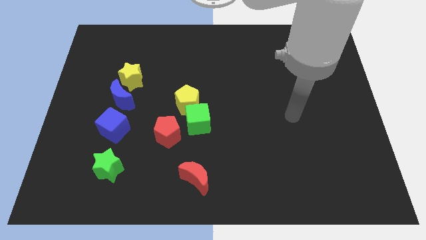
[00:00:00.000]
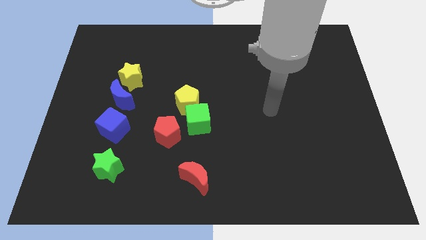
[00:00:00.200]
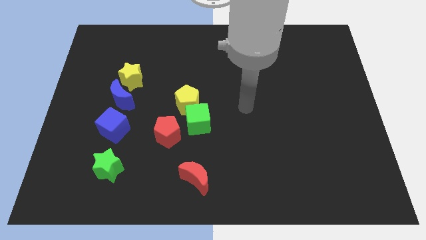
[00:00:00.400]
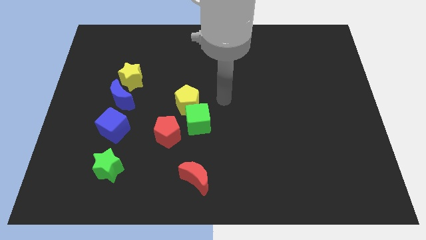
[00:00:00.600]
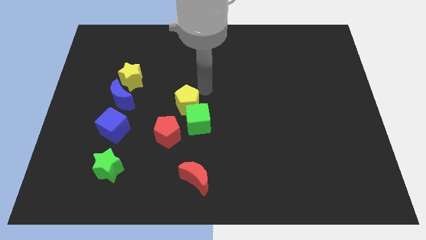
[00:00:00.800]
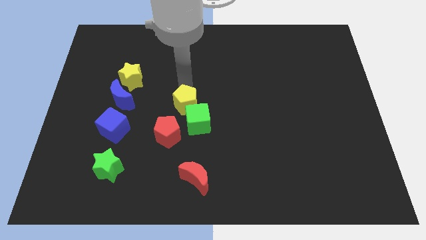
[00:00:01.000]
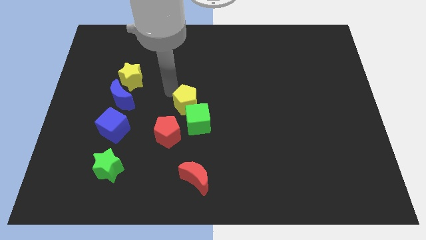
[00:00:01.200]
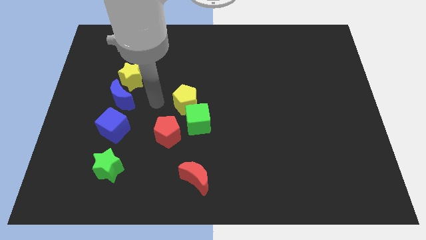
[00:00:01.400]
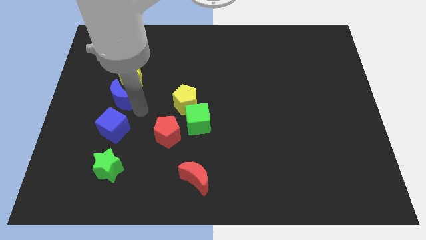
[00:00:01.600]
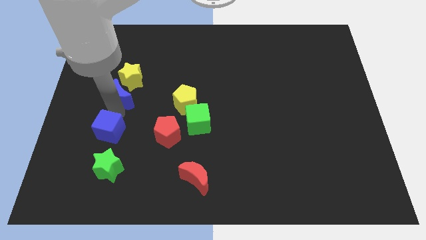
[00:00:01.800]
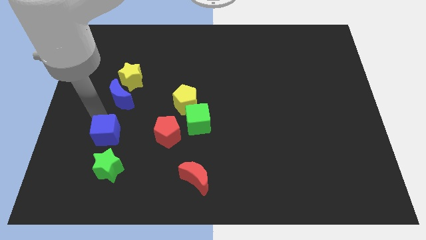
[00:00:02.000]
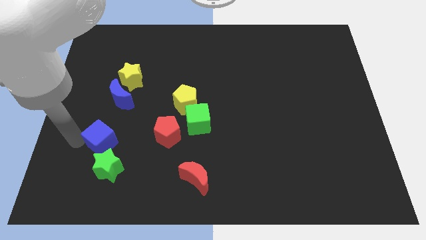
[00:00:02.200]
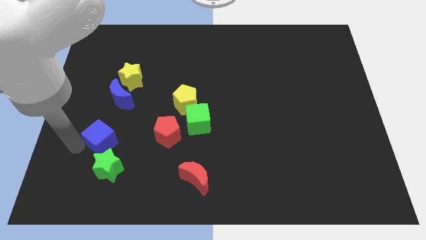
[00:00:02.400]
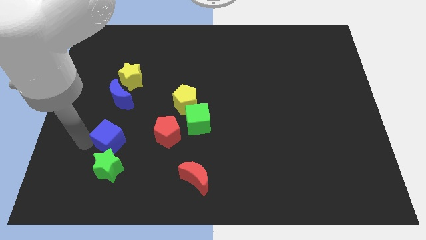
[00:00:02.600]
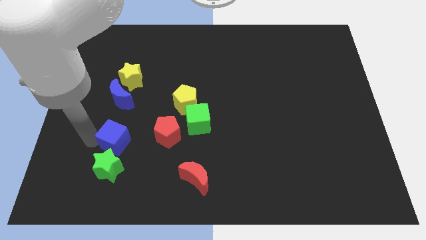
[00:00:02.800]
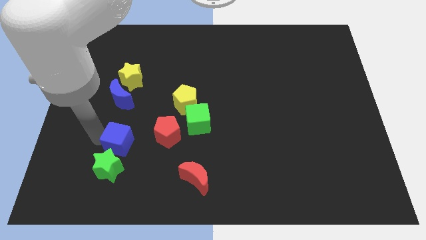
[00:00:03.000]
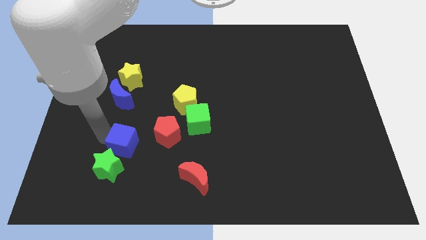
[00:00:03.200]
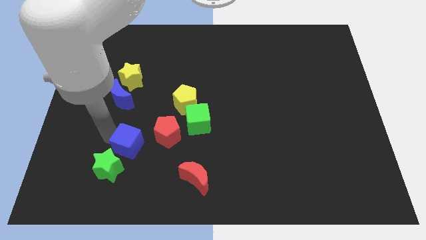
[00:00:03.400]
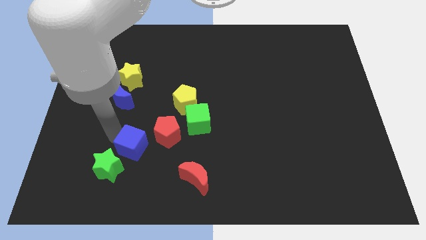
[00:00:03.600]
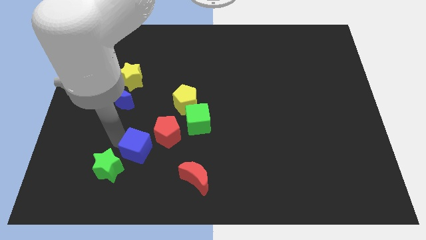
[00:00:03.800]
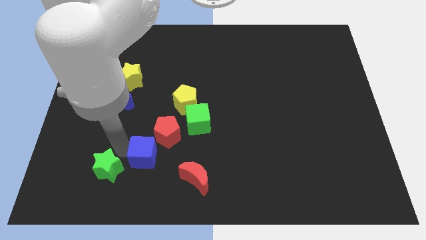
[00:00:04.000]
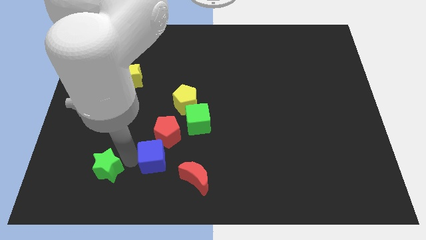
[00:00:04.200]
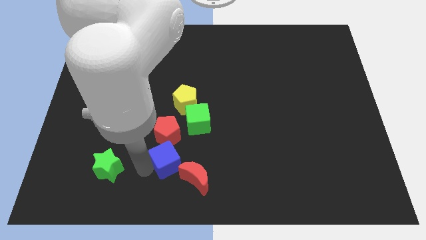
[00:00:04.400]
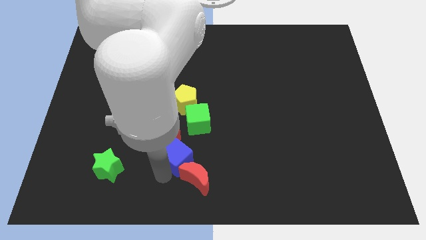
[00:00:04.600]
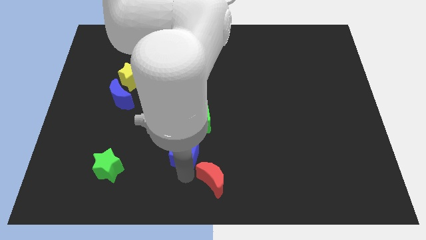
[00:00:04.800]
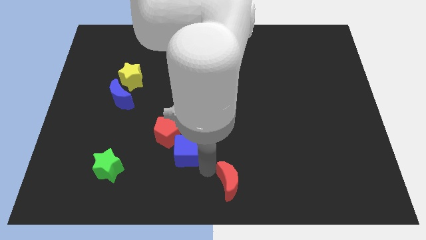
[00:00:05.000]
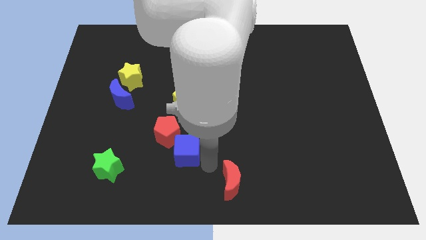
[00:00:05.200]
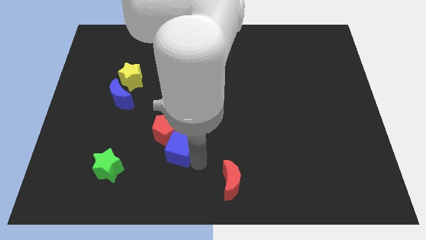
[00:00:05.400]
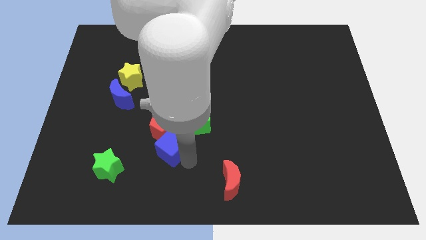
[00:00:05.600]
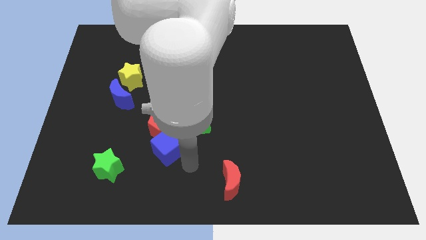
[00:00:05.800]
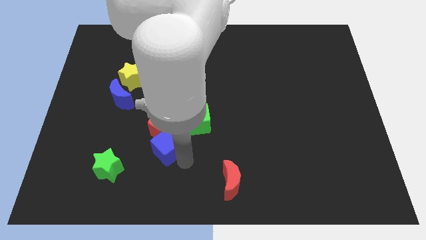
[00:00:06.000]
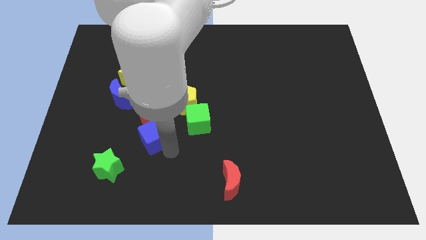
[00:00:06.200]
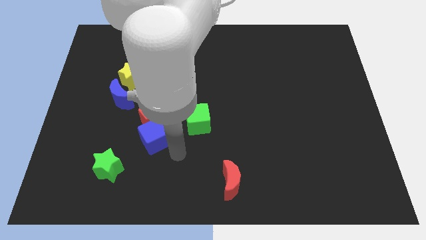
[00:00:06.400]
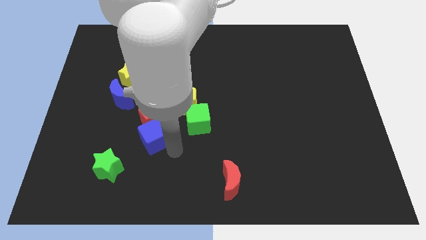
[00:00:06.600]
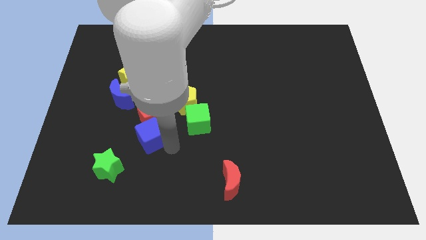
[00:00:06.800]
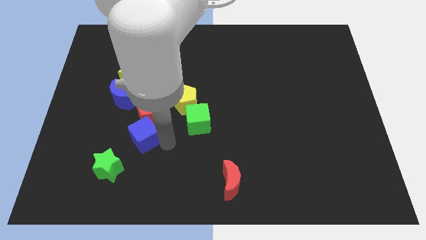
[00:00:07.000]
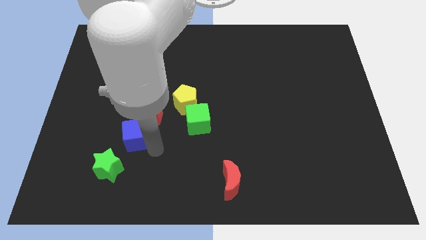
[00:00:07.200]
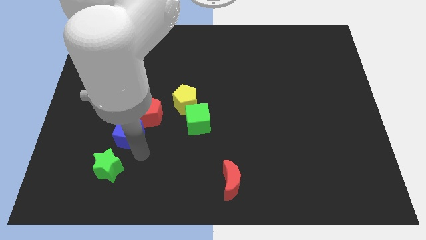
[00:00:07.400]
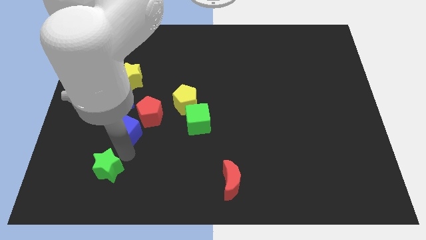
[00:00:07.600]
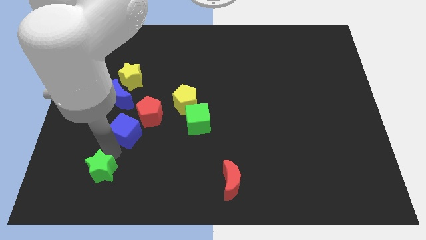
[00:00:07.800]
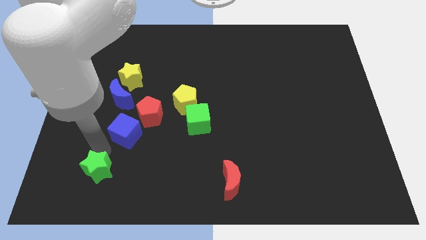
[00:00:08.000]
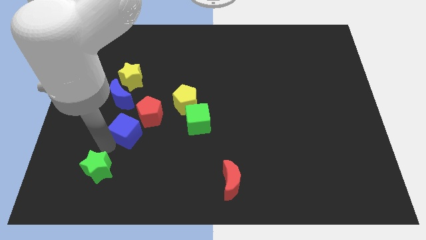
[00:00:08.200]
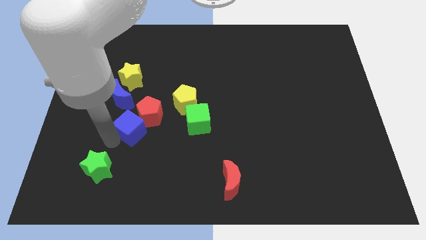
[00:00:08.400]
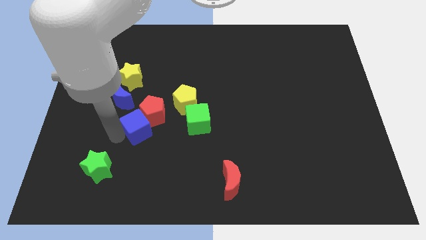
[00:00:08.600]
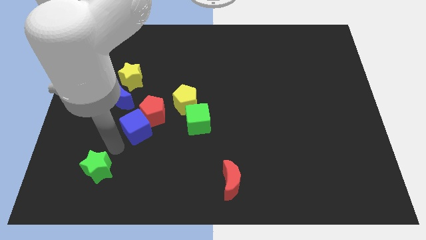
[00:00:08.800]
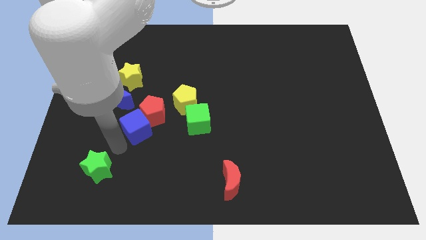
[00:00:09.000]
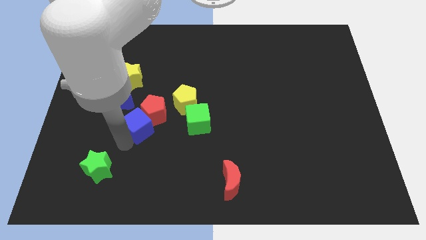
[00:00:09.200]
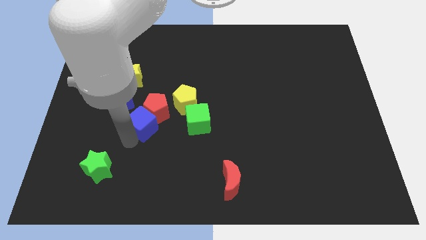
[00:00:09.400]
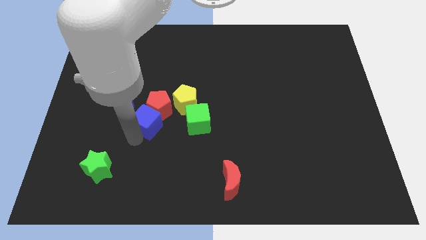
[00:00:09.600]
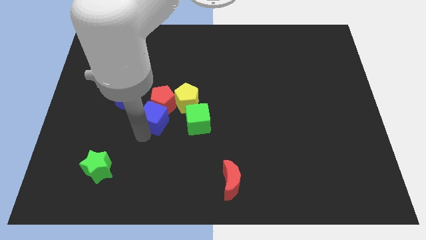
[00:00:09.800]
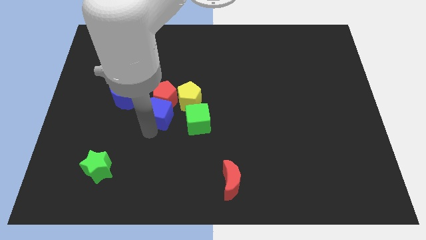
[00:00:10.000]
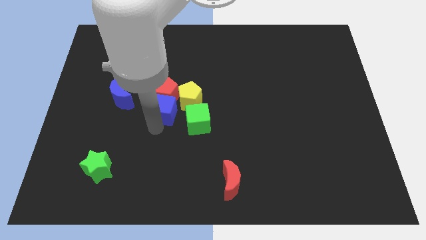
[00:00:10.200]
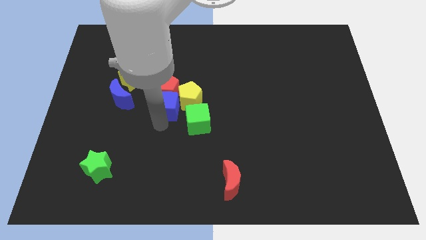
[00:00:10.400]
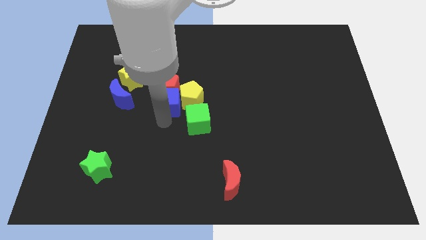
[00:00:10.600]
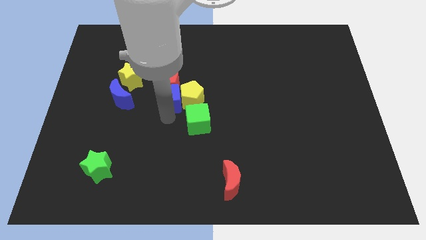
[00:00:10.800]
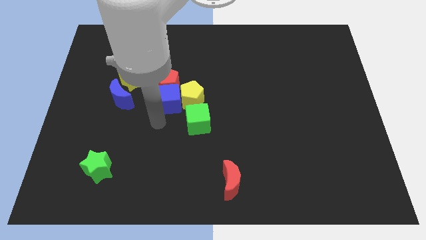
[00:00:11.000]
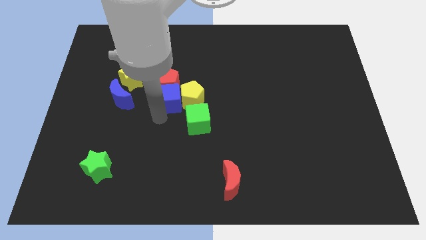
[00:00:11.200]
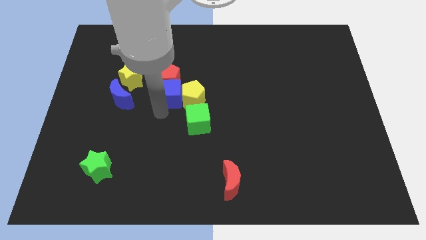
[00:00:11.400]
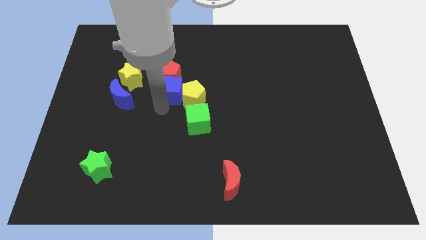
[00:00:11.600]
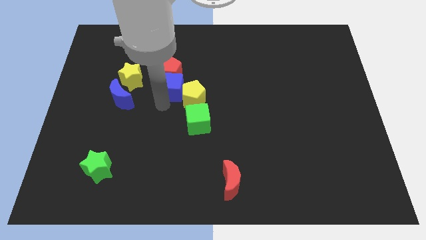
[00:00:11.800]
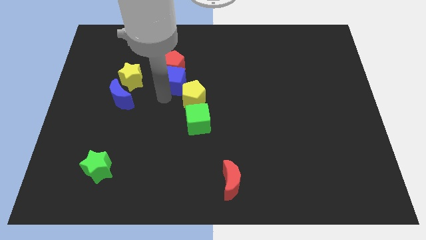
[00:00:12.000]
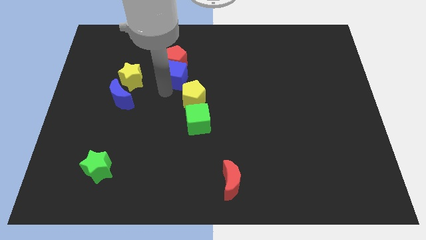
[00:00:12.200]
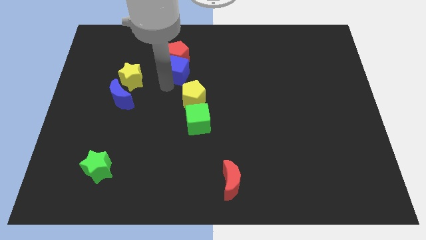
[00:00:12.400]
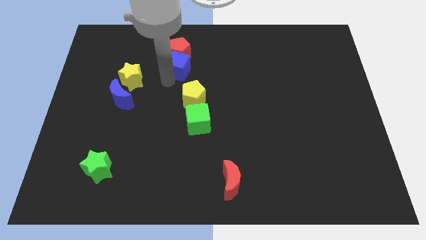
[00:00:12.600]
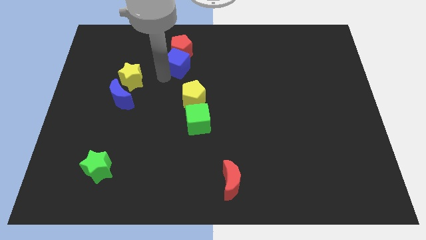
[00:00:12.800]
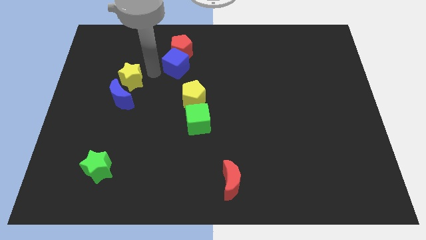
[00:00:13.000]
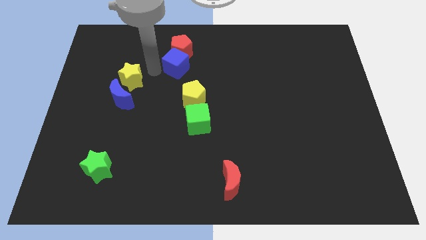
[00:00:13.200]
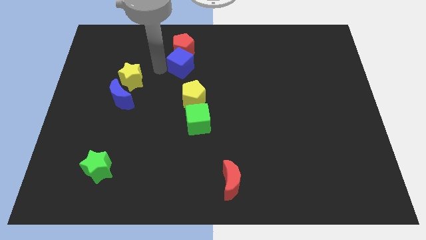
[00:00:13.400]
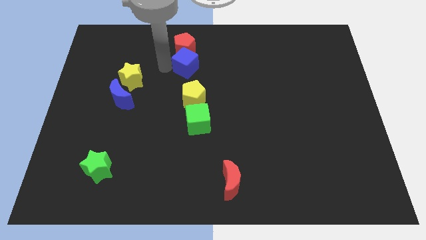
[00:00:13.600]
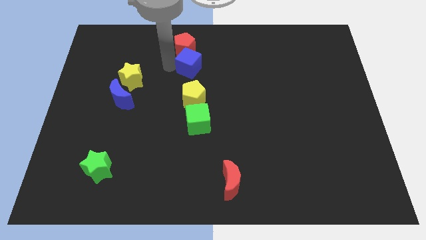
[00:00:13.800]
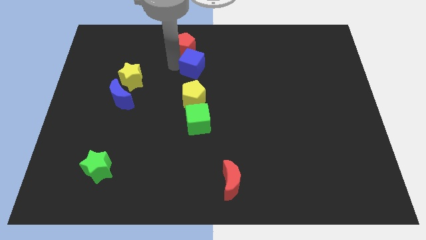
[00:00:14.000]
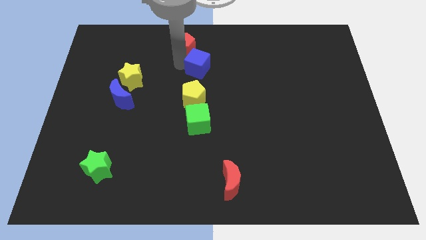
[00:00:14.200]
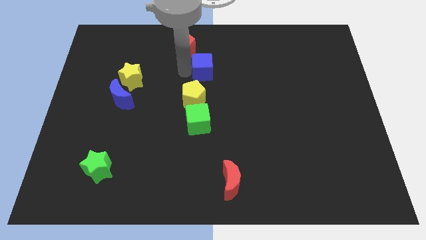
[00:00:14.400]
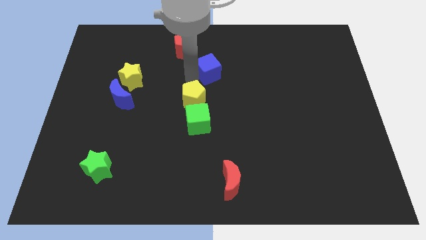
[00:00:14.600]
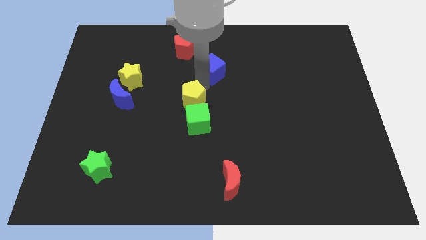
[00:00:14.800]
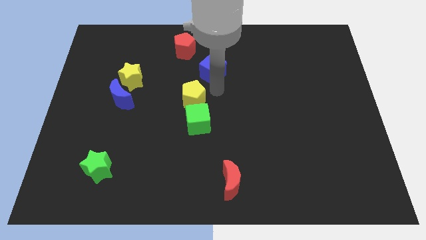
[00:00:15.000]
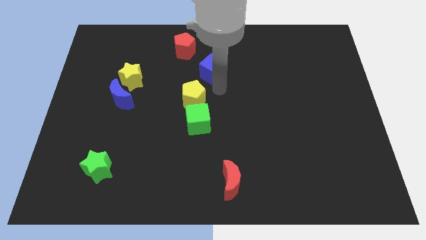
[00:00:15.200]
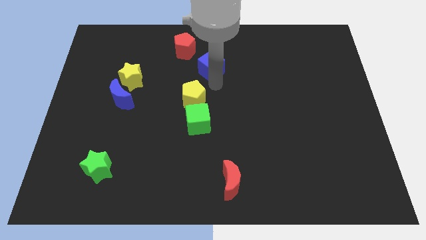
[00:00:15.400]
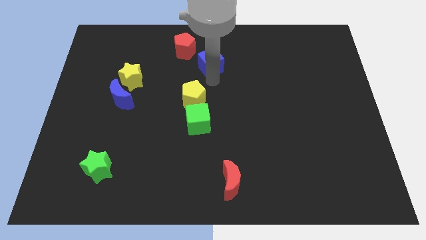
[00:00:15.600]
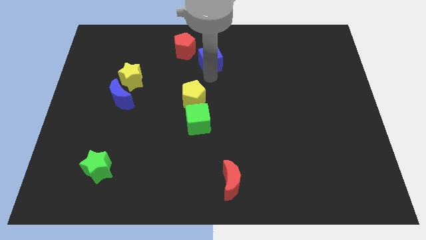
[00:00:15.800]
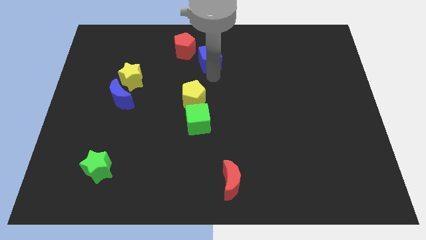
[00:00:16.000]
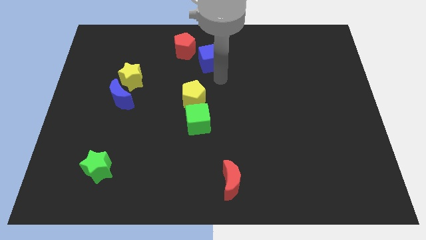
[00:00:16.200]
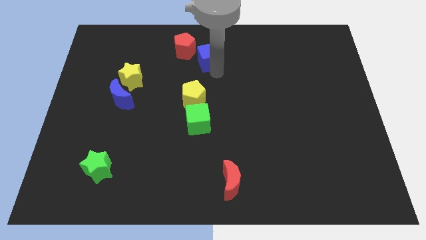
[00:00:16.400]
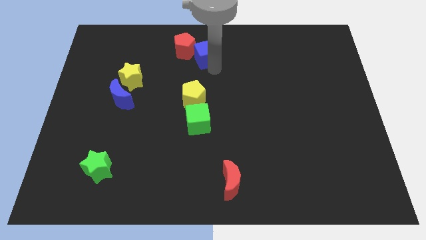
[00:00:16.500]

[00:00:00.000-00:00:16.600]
push the blue cube to the top side
